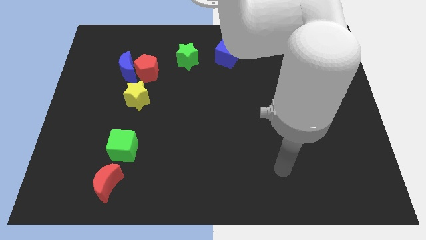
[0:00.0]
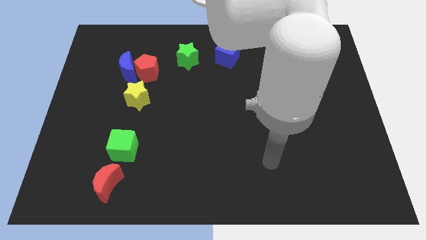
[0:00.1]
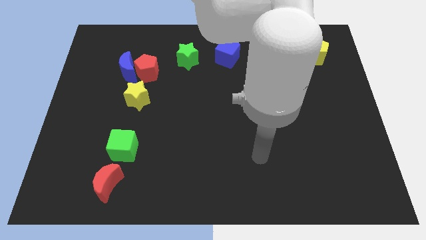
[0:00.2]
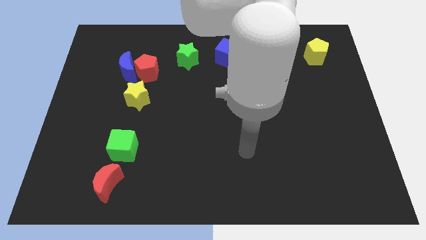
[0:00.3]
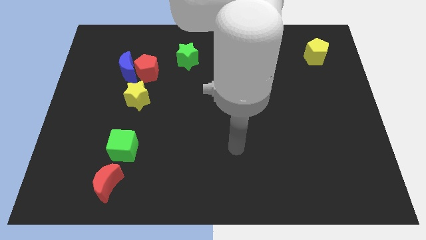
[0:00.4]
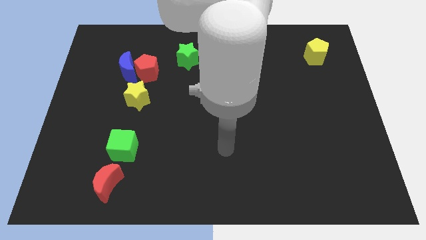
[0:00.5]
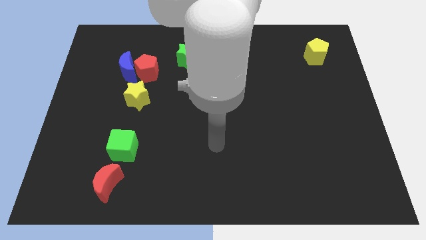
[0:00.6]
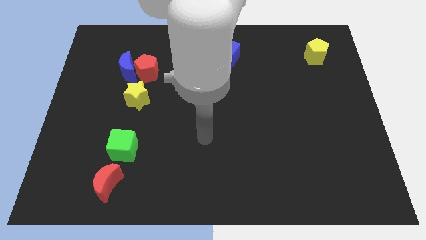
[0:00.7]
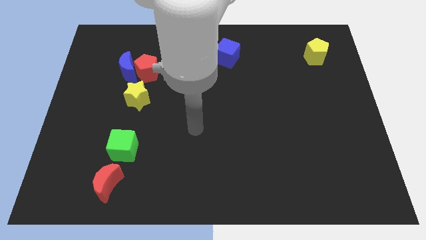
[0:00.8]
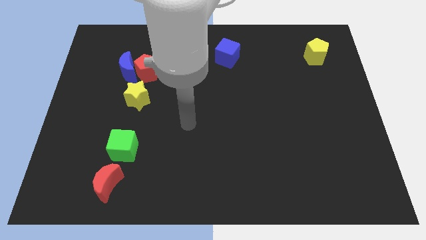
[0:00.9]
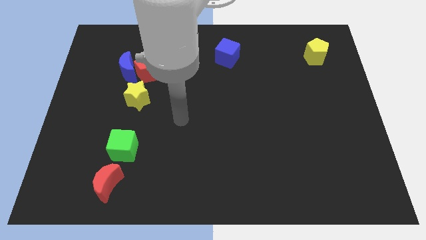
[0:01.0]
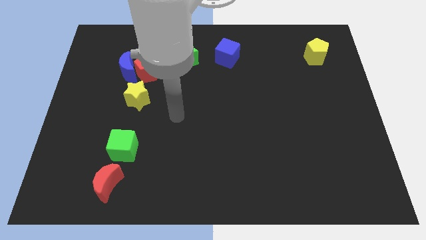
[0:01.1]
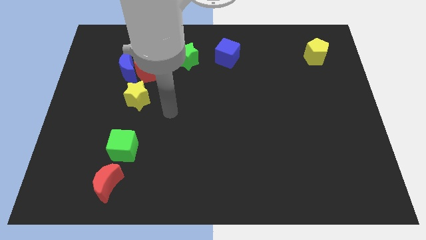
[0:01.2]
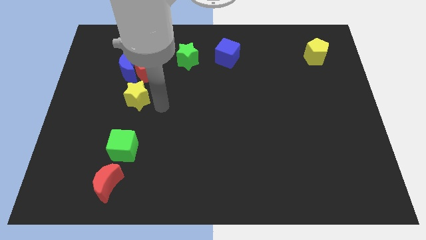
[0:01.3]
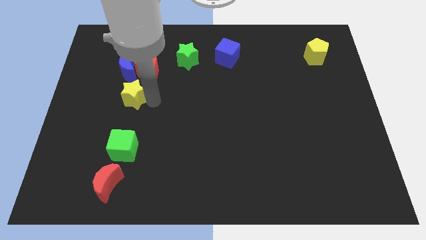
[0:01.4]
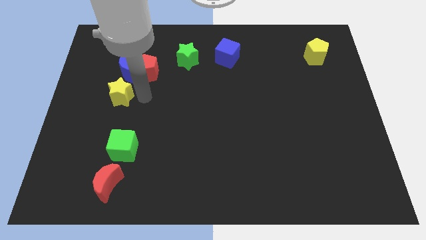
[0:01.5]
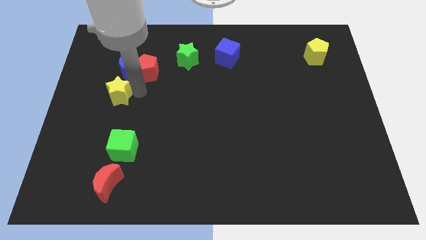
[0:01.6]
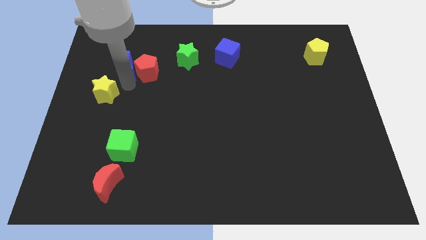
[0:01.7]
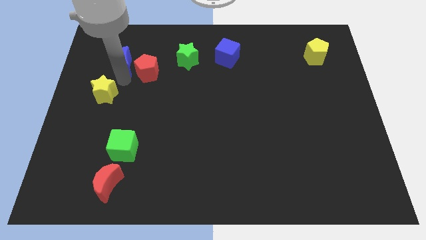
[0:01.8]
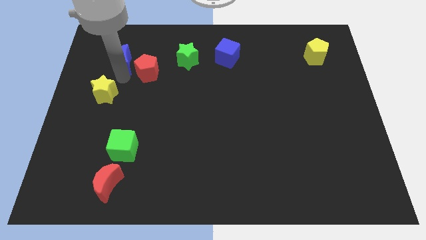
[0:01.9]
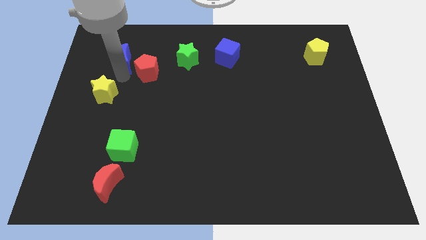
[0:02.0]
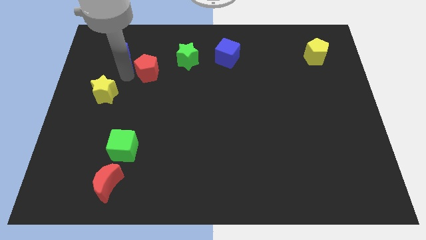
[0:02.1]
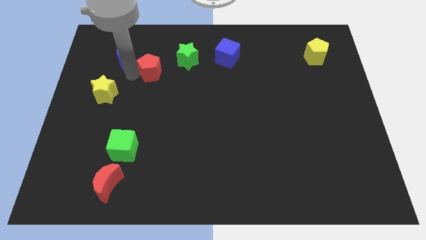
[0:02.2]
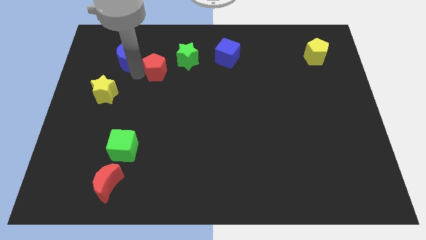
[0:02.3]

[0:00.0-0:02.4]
move the red pentagon away from the blue moon and yellow star

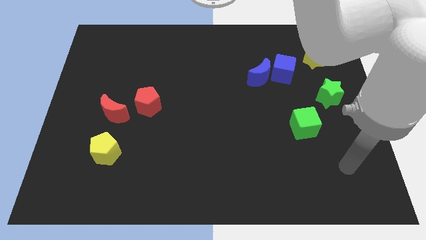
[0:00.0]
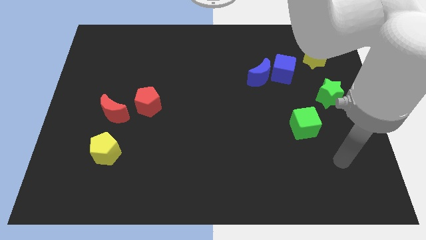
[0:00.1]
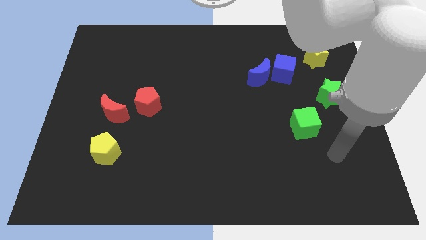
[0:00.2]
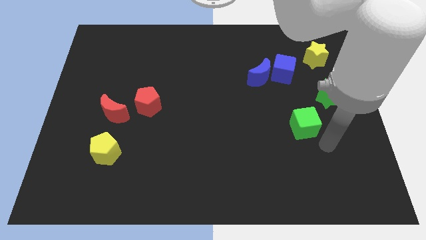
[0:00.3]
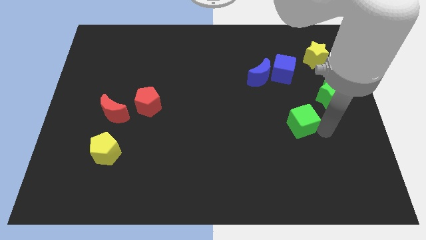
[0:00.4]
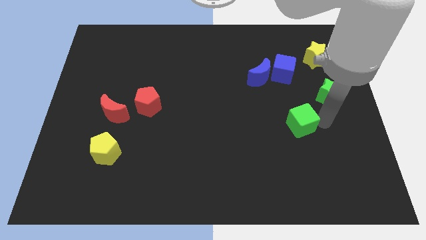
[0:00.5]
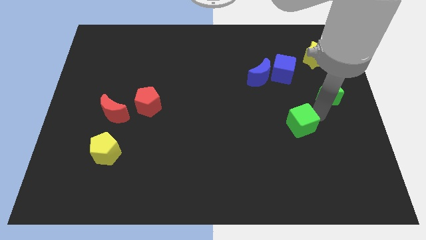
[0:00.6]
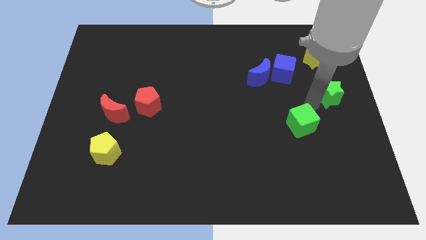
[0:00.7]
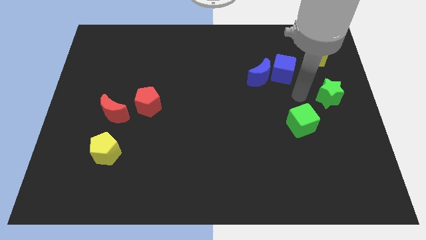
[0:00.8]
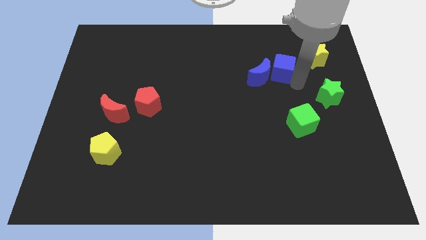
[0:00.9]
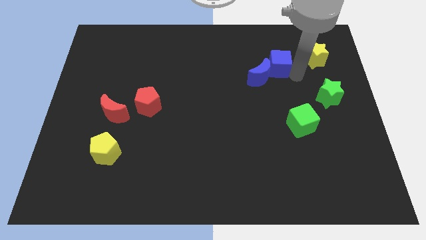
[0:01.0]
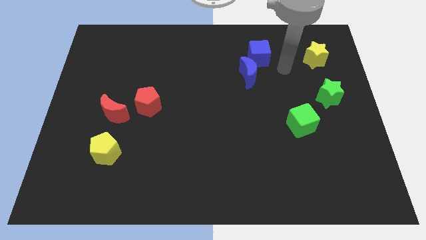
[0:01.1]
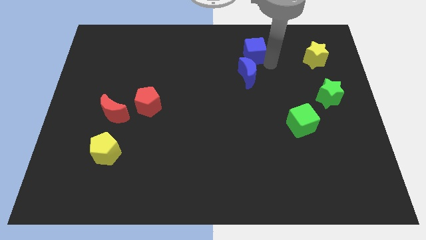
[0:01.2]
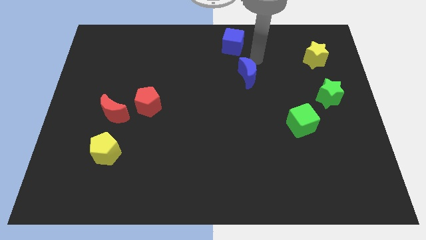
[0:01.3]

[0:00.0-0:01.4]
pull the blue moon apart from the blue cube

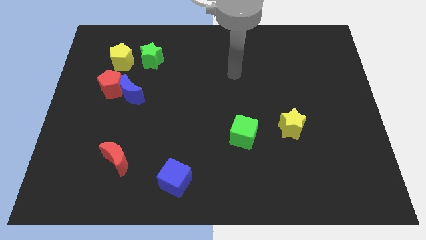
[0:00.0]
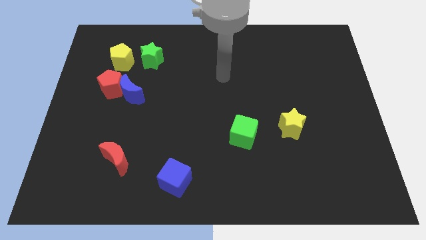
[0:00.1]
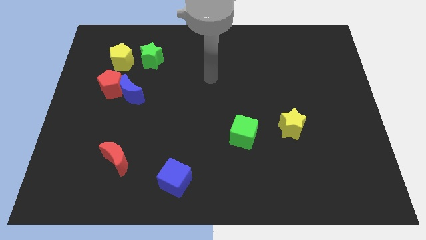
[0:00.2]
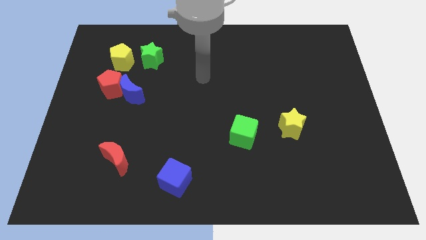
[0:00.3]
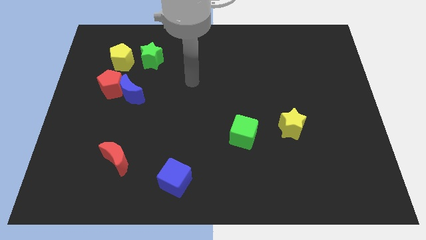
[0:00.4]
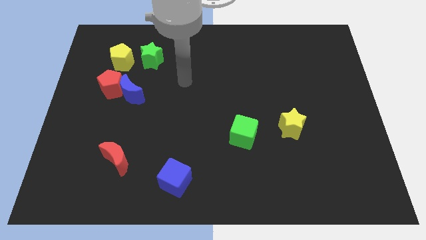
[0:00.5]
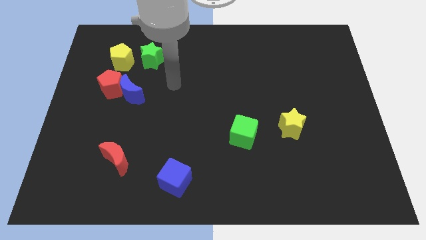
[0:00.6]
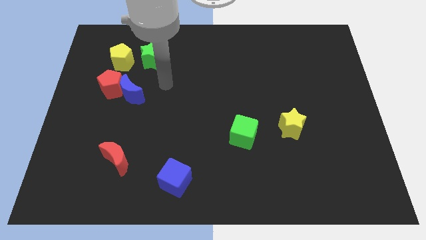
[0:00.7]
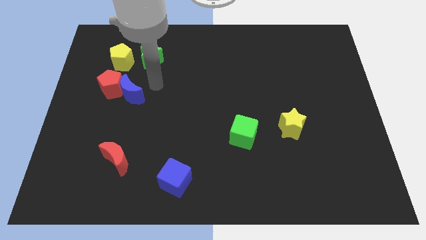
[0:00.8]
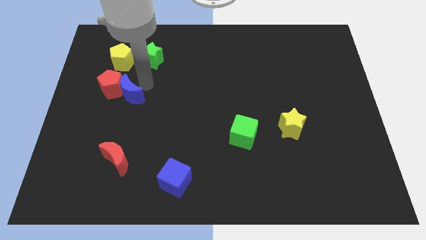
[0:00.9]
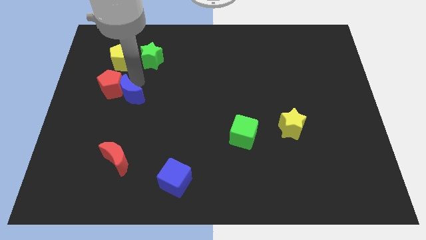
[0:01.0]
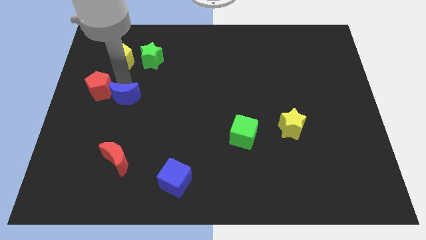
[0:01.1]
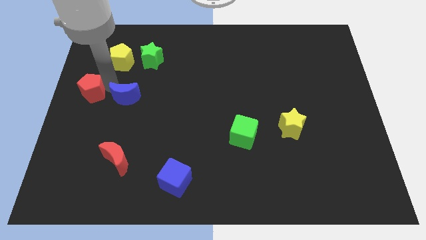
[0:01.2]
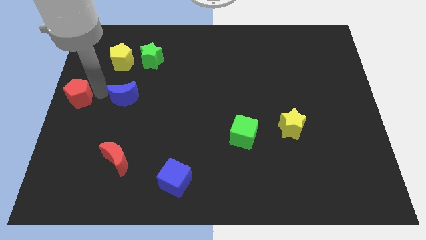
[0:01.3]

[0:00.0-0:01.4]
separate the blue moon from the red pentagon

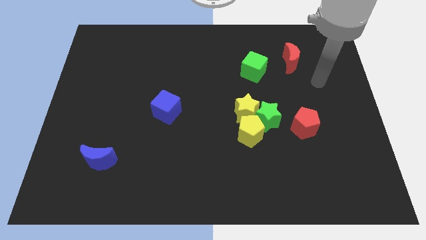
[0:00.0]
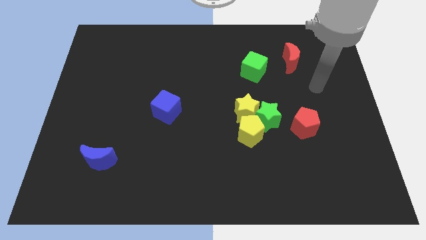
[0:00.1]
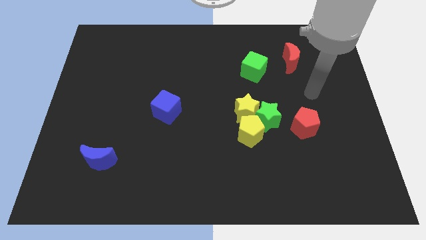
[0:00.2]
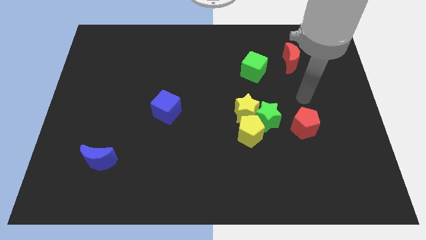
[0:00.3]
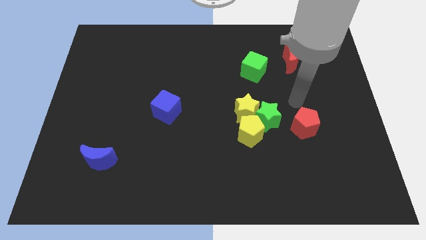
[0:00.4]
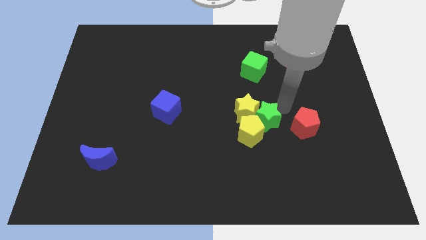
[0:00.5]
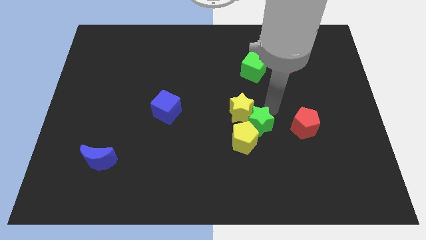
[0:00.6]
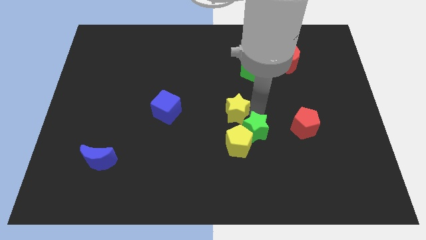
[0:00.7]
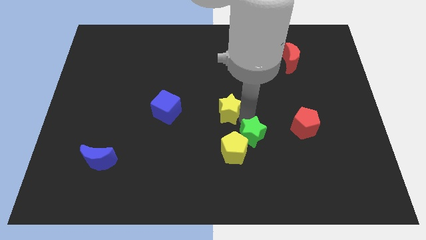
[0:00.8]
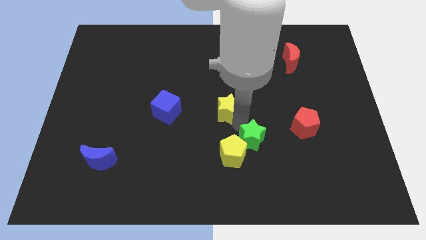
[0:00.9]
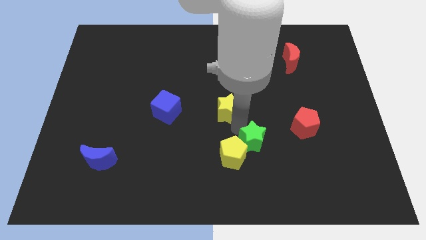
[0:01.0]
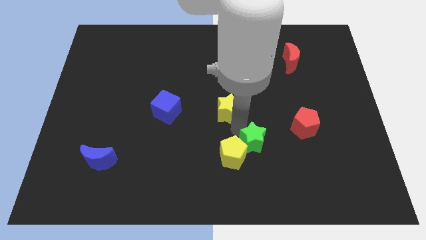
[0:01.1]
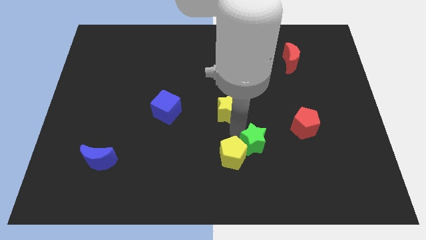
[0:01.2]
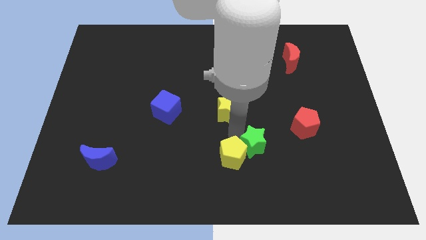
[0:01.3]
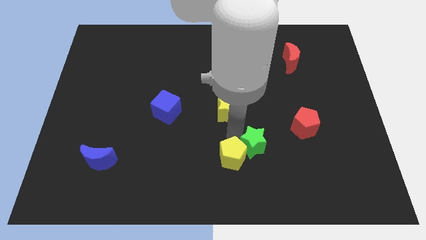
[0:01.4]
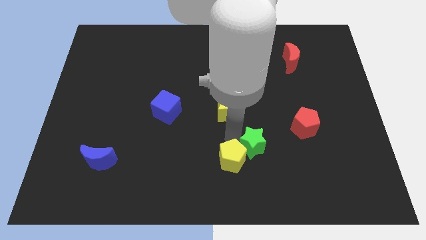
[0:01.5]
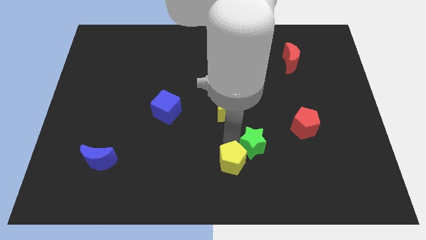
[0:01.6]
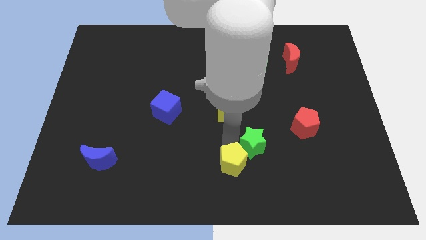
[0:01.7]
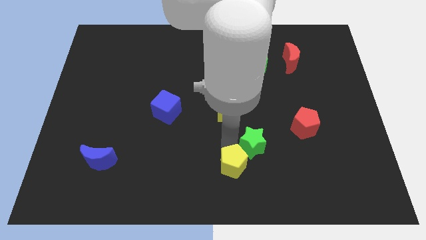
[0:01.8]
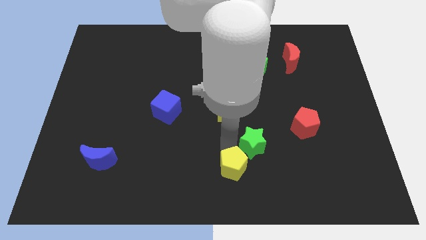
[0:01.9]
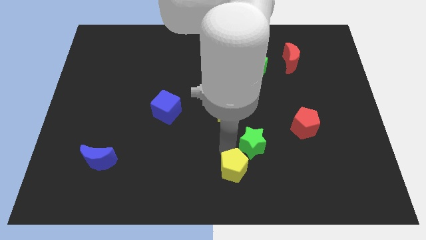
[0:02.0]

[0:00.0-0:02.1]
move the yellow pentagon away from the green star and yellow star

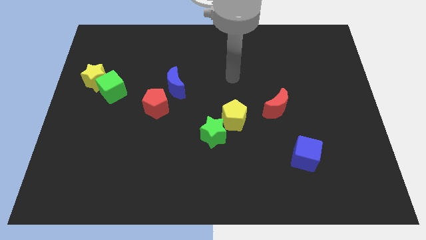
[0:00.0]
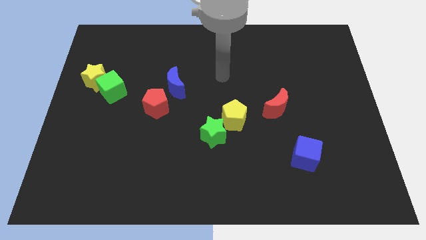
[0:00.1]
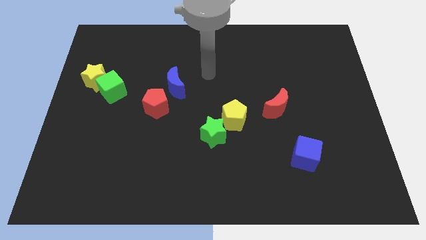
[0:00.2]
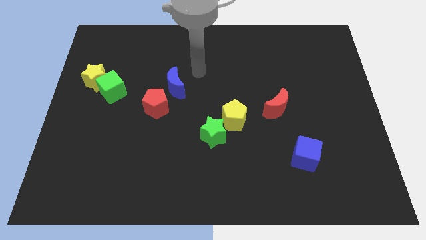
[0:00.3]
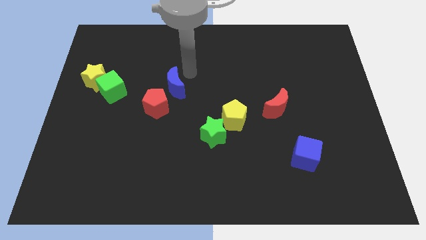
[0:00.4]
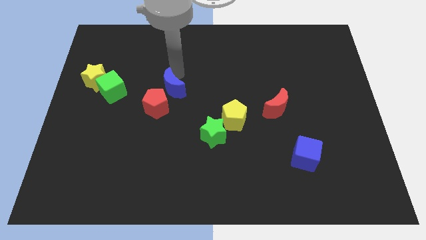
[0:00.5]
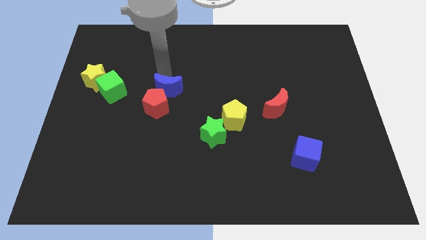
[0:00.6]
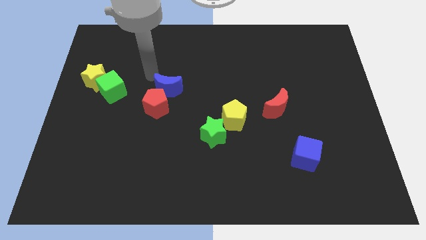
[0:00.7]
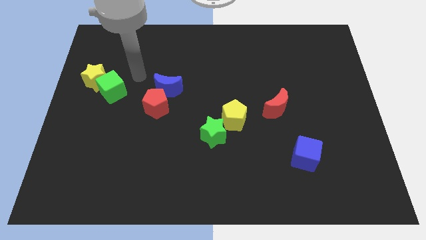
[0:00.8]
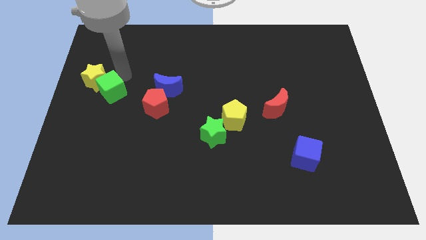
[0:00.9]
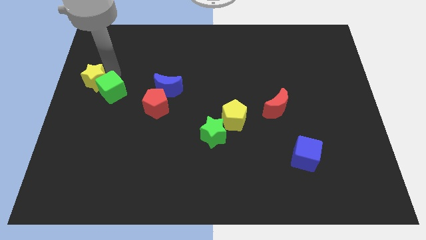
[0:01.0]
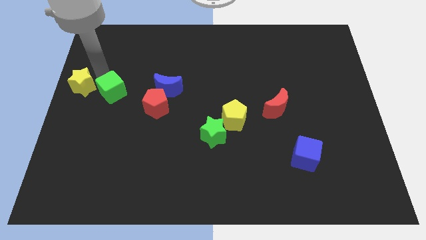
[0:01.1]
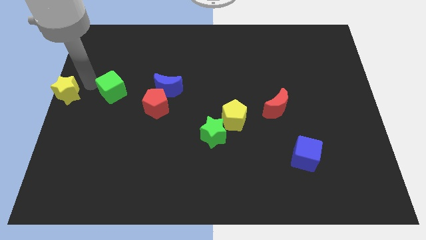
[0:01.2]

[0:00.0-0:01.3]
pull the green cube apart from the yellow star

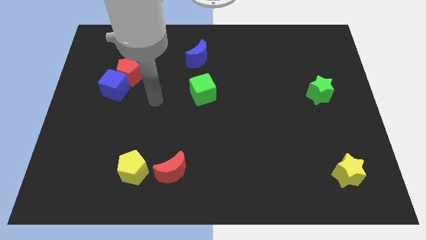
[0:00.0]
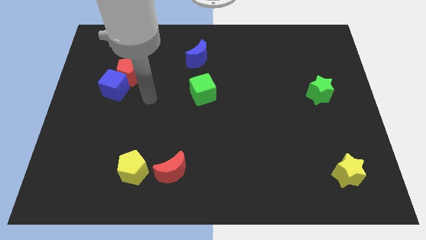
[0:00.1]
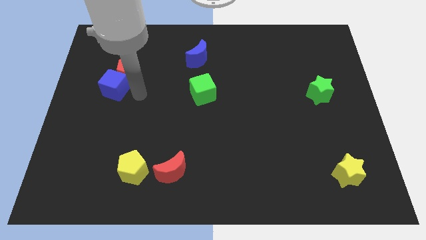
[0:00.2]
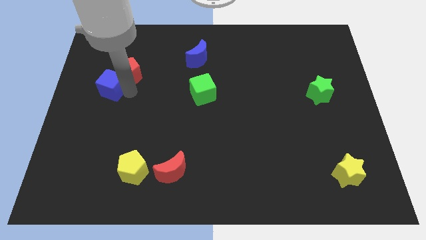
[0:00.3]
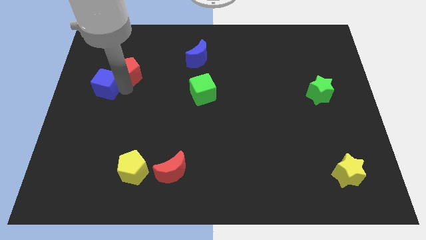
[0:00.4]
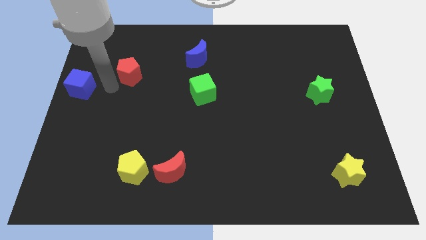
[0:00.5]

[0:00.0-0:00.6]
move the red pentagon away from the blue cube
